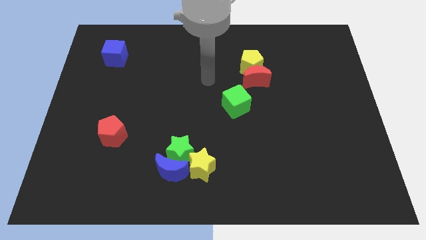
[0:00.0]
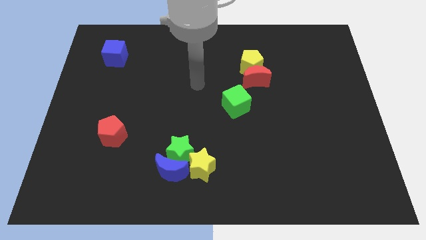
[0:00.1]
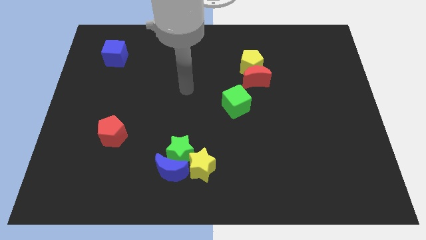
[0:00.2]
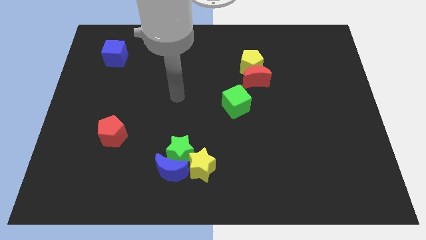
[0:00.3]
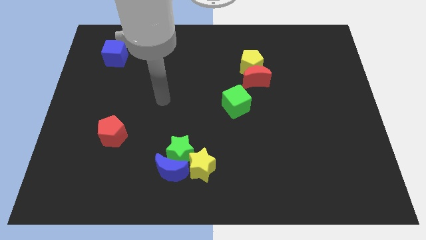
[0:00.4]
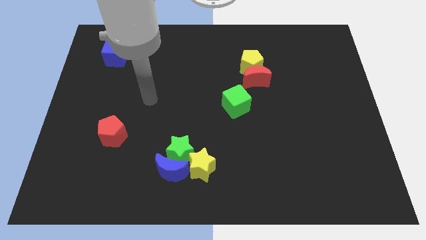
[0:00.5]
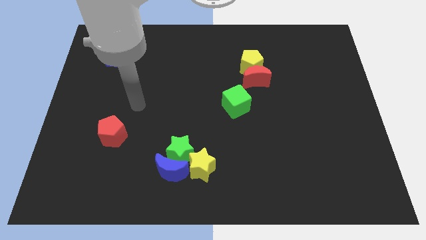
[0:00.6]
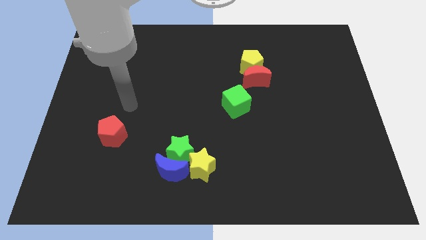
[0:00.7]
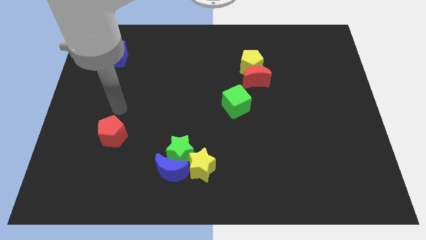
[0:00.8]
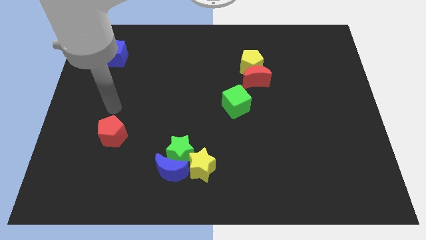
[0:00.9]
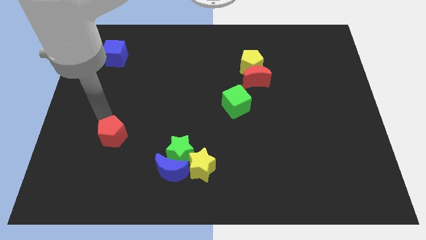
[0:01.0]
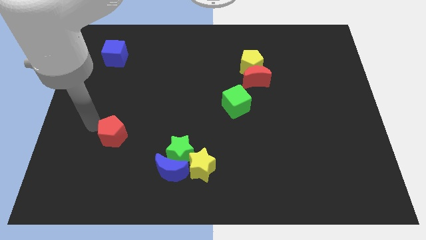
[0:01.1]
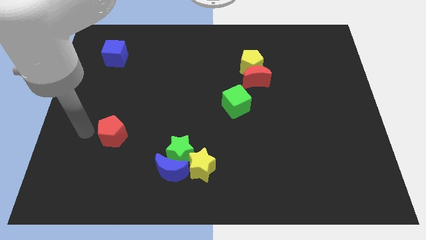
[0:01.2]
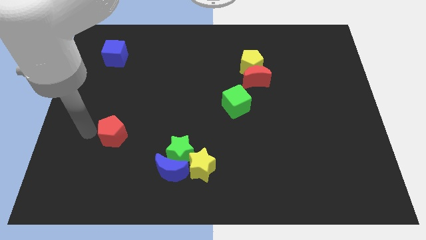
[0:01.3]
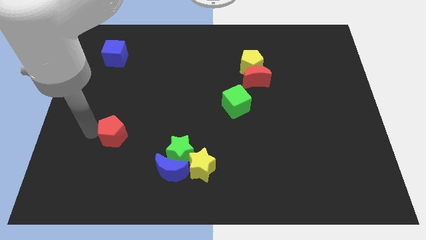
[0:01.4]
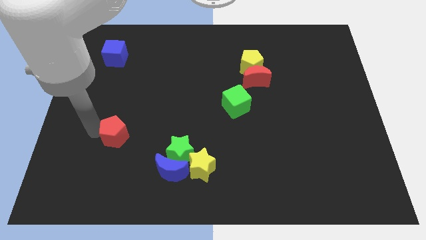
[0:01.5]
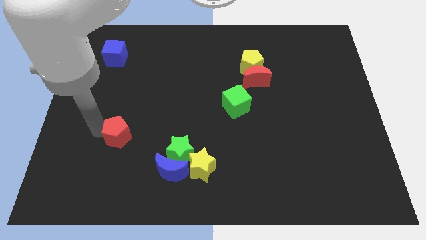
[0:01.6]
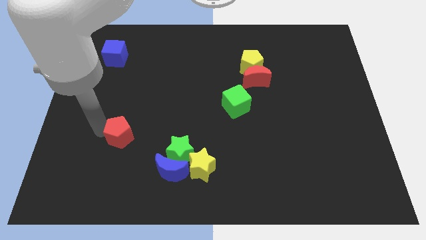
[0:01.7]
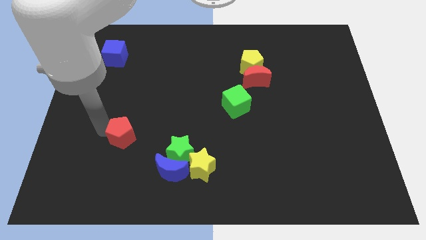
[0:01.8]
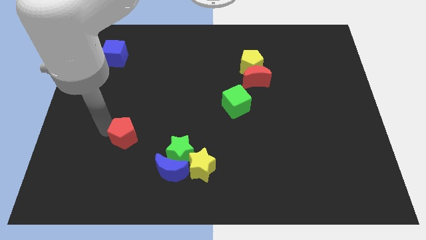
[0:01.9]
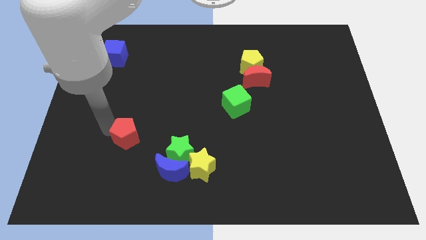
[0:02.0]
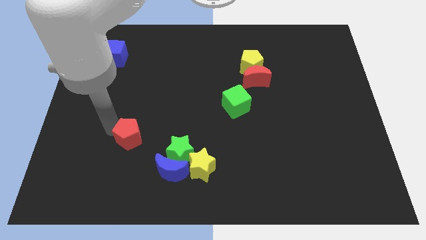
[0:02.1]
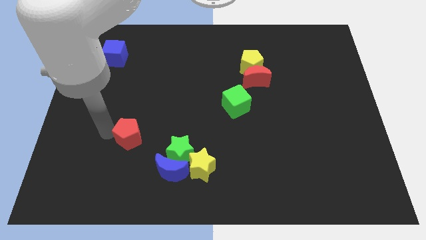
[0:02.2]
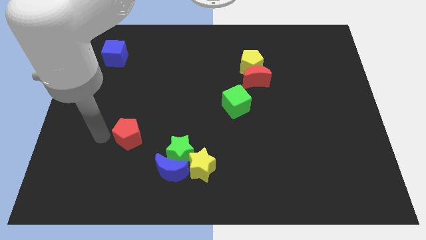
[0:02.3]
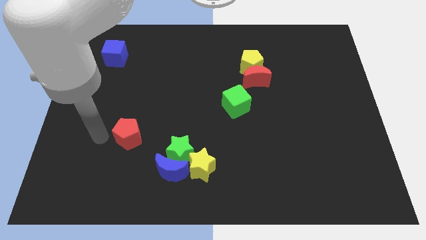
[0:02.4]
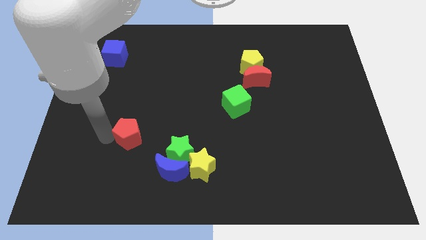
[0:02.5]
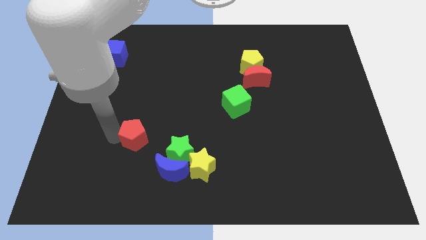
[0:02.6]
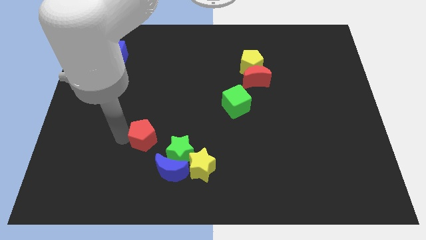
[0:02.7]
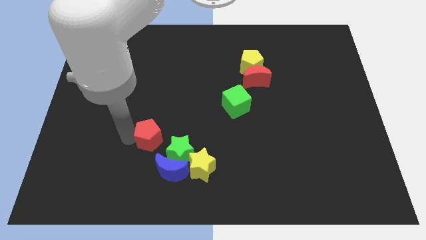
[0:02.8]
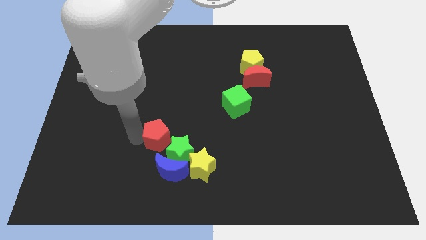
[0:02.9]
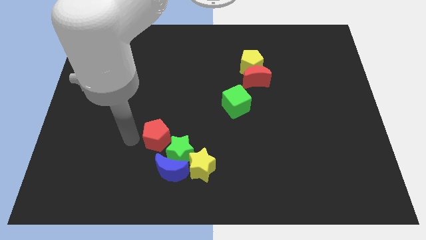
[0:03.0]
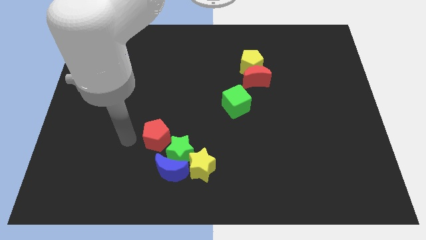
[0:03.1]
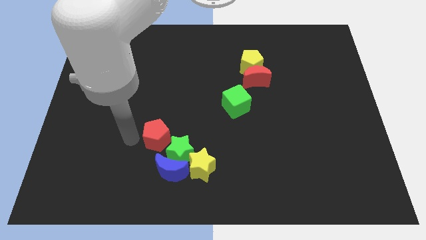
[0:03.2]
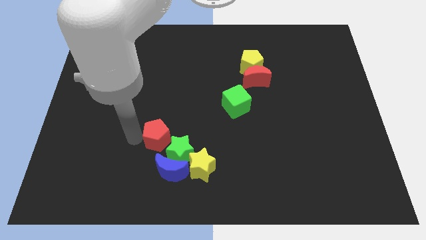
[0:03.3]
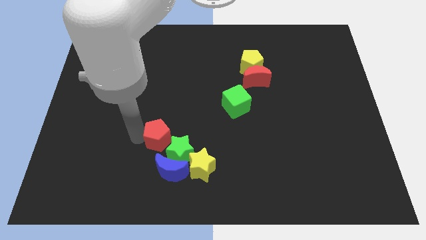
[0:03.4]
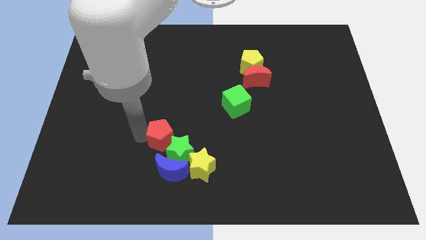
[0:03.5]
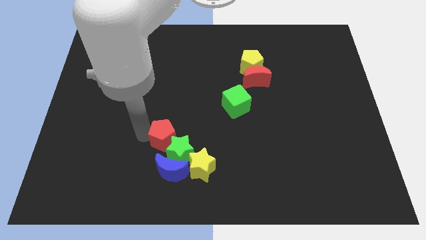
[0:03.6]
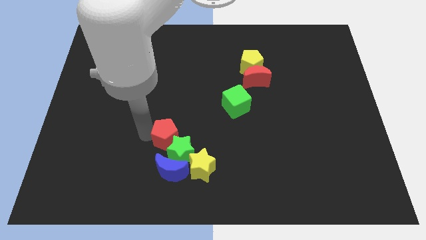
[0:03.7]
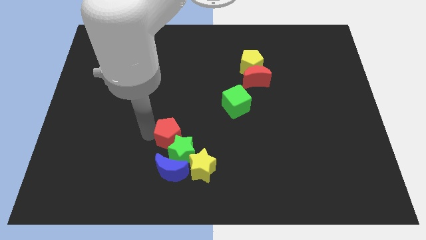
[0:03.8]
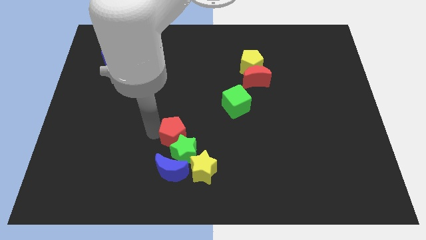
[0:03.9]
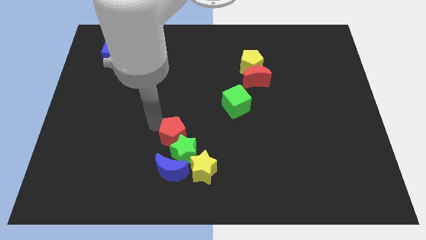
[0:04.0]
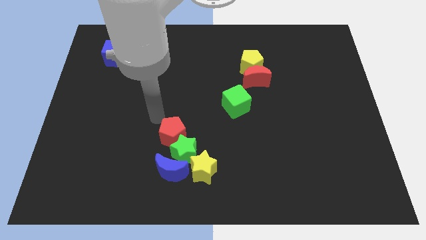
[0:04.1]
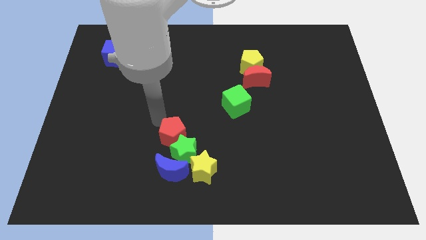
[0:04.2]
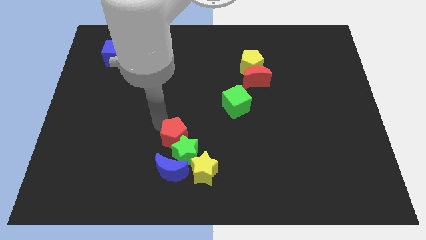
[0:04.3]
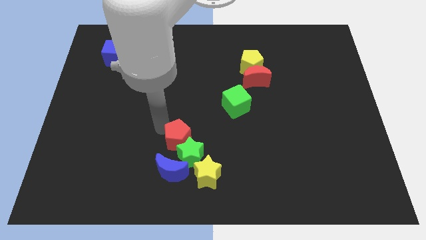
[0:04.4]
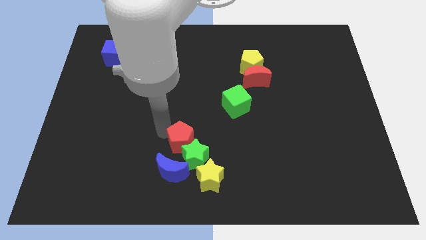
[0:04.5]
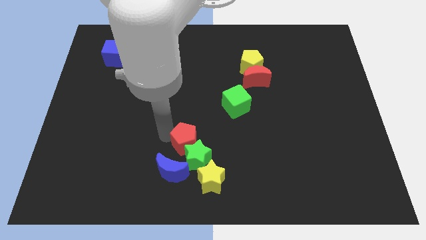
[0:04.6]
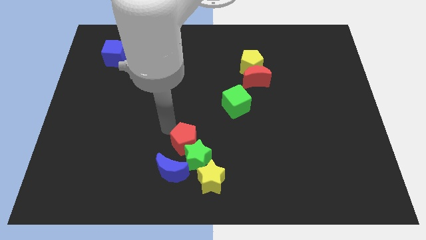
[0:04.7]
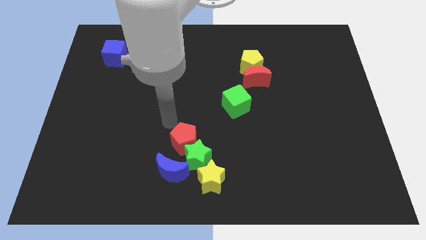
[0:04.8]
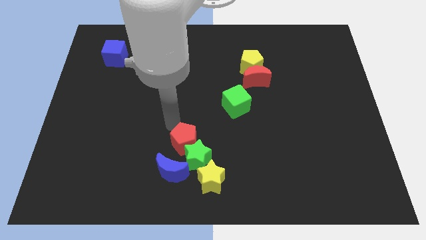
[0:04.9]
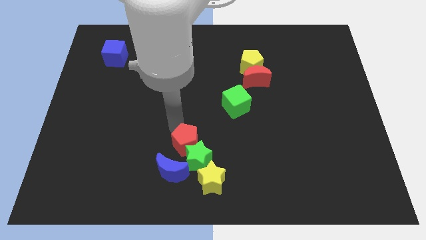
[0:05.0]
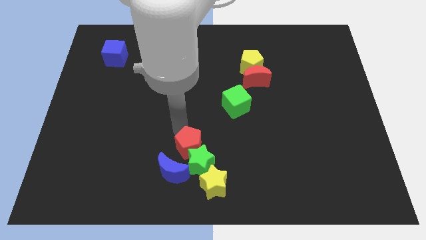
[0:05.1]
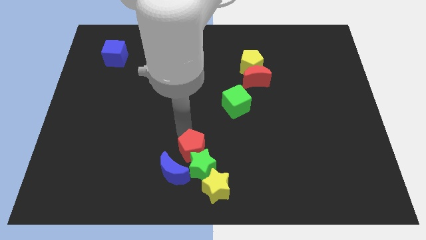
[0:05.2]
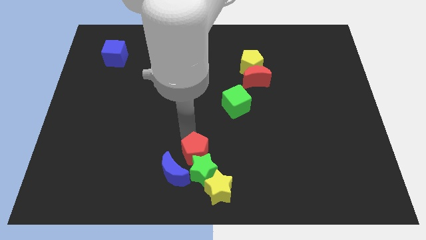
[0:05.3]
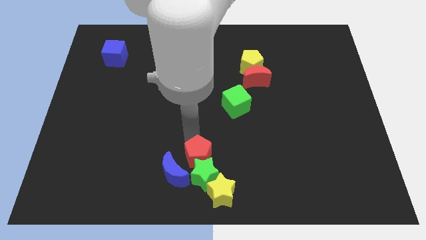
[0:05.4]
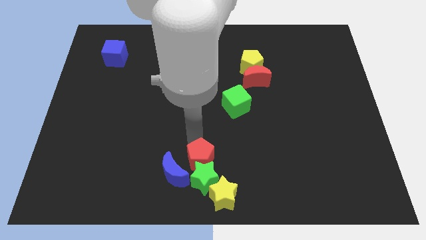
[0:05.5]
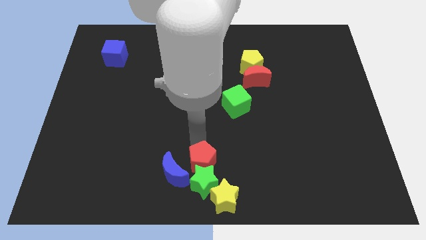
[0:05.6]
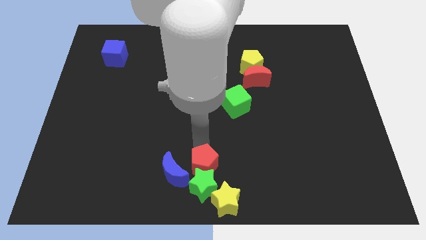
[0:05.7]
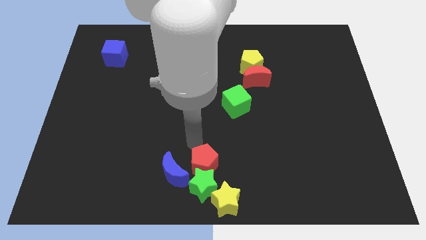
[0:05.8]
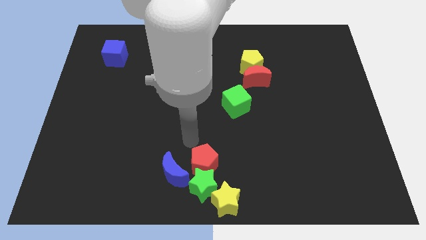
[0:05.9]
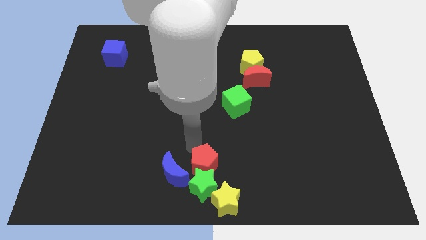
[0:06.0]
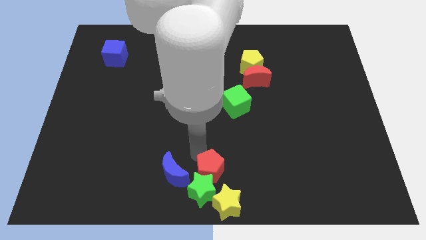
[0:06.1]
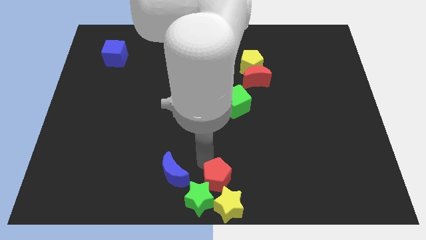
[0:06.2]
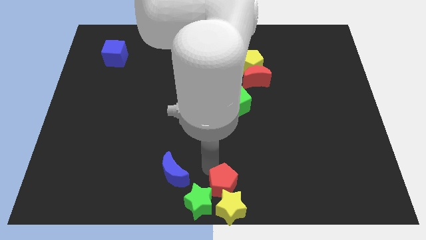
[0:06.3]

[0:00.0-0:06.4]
move the red pentagon next to the yellow star

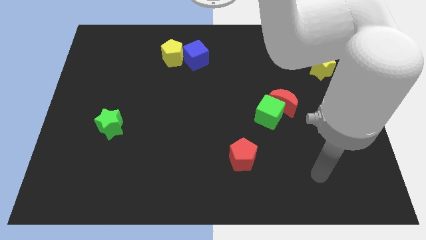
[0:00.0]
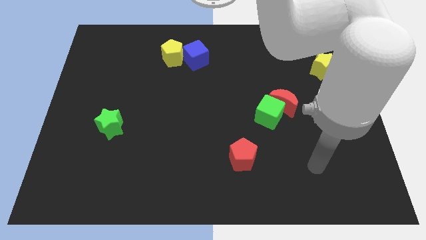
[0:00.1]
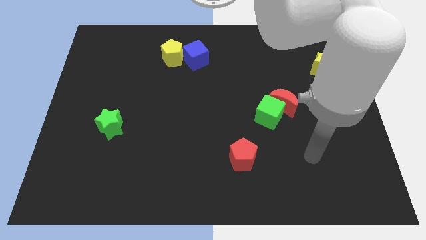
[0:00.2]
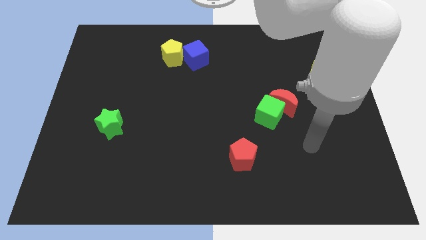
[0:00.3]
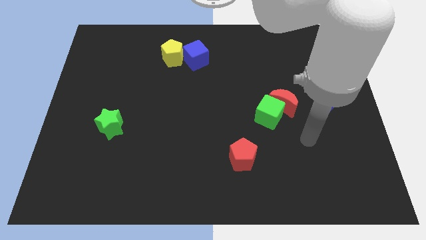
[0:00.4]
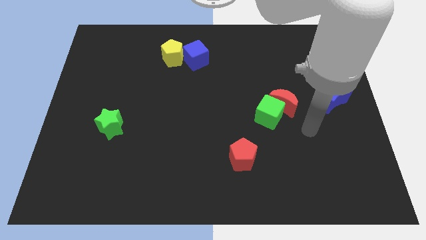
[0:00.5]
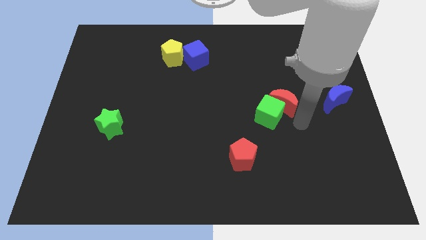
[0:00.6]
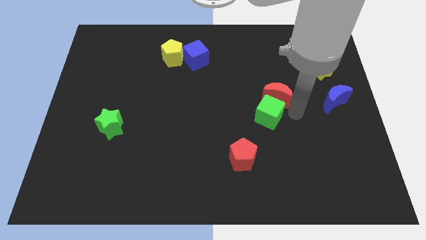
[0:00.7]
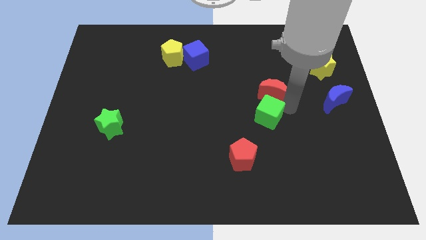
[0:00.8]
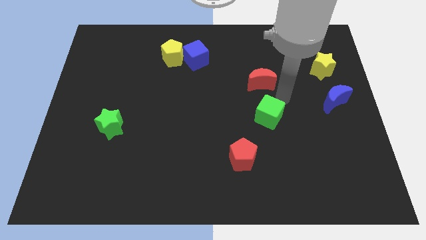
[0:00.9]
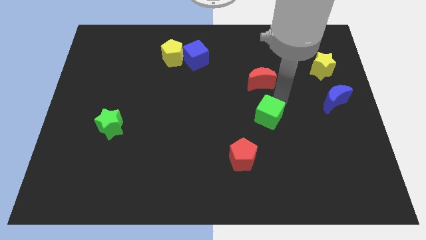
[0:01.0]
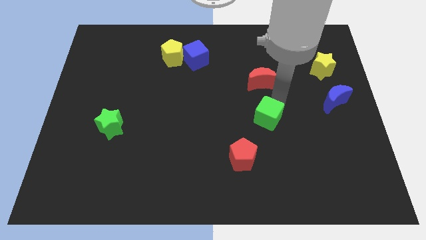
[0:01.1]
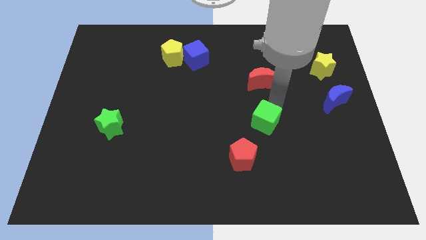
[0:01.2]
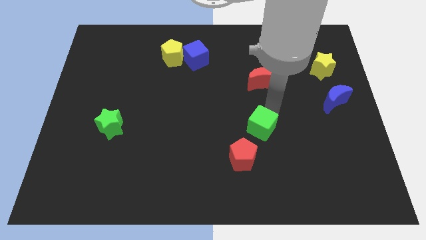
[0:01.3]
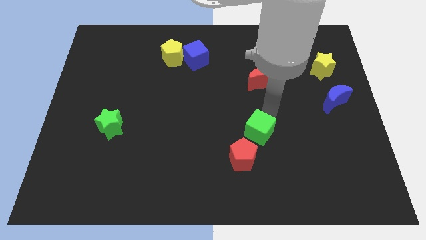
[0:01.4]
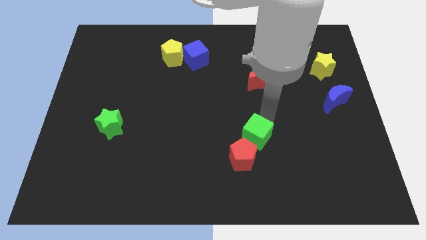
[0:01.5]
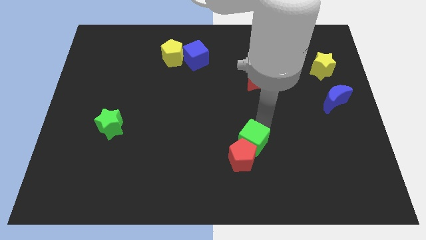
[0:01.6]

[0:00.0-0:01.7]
put the green cube close to the red pentagon
